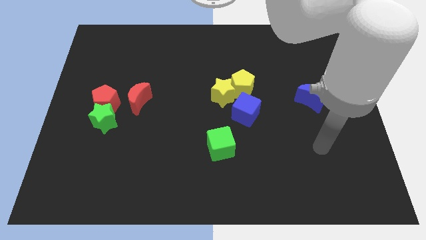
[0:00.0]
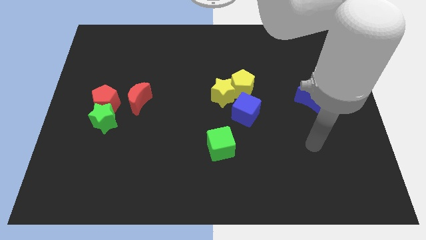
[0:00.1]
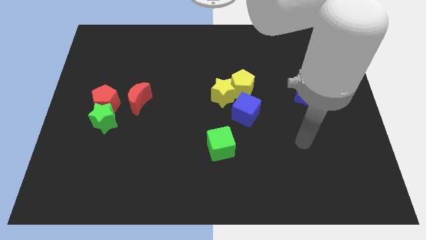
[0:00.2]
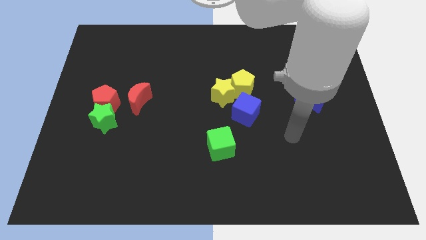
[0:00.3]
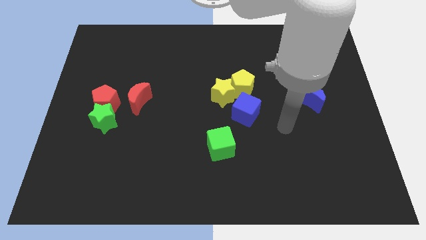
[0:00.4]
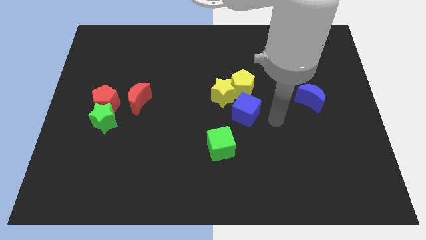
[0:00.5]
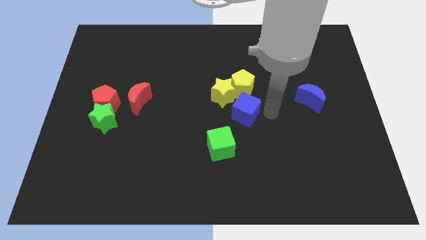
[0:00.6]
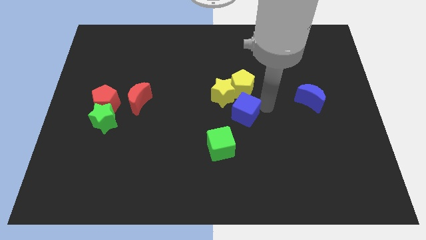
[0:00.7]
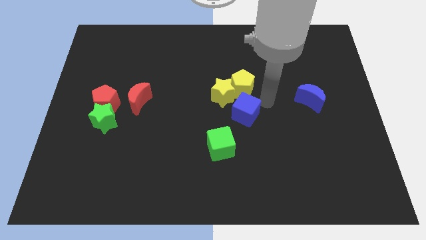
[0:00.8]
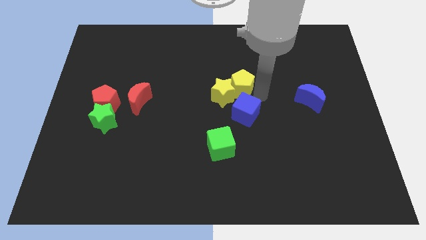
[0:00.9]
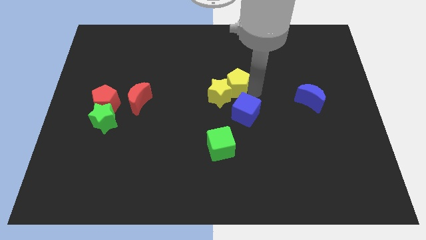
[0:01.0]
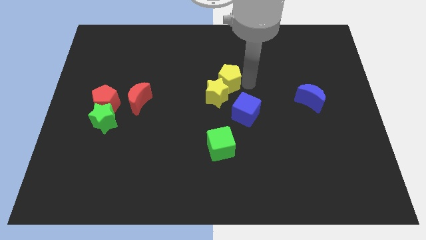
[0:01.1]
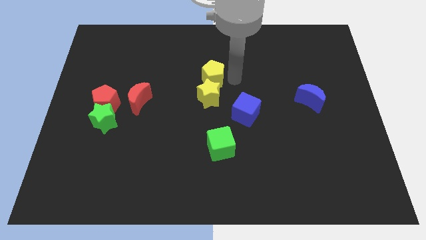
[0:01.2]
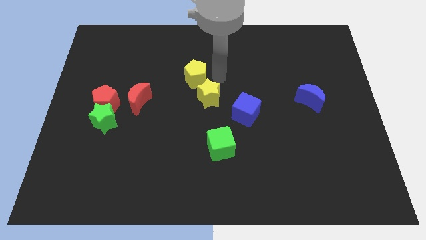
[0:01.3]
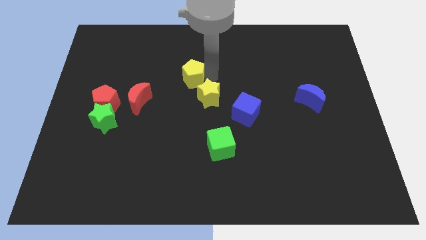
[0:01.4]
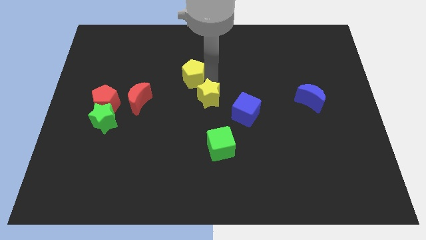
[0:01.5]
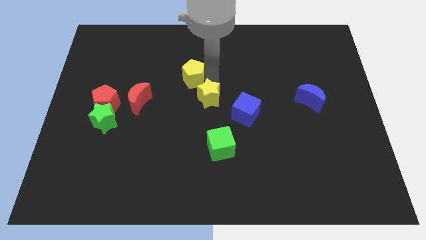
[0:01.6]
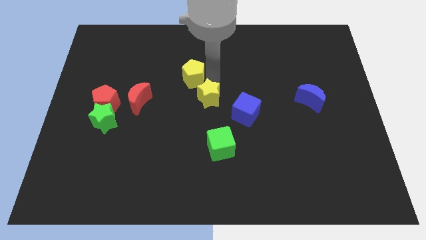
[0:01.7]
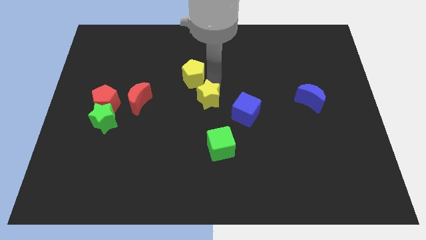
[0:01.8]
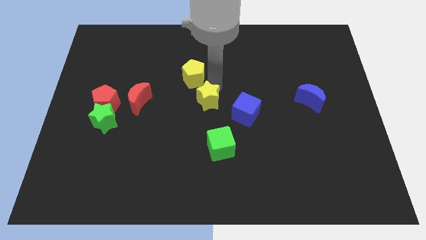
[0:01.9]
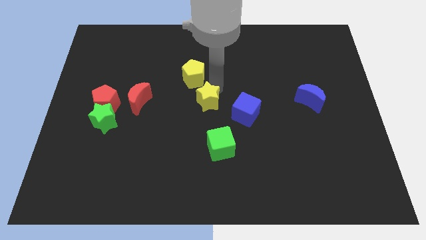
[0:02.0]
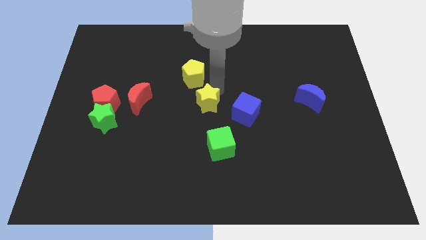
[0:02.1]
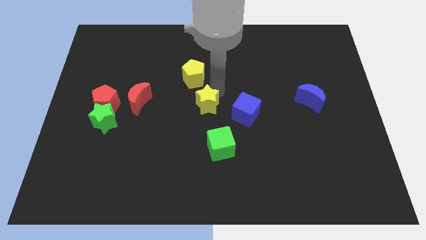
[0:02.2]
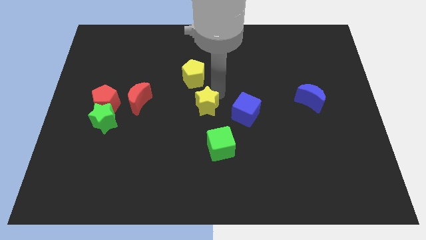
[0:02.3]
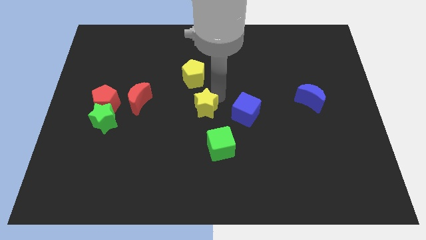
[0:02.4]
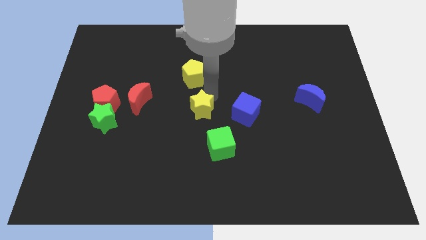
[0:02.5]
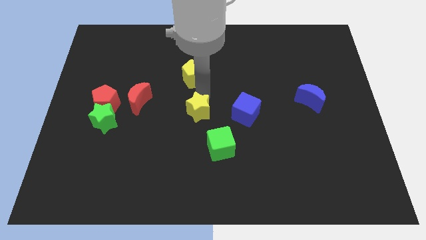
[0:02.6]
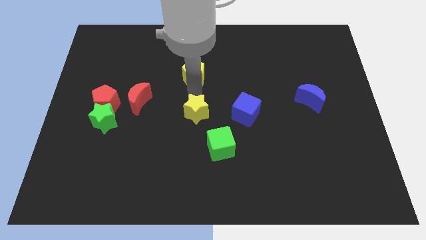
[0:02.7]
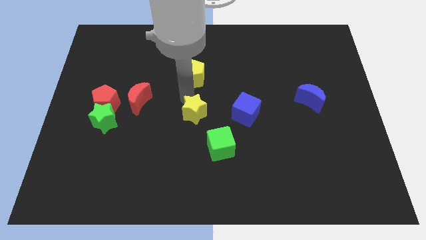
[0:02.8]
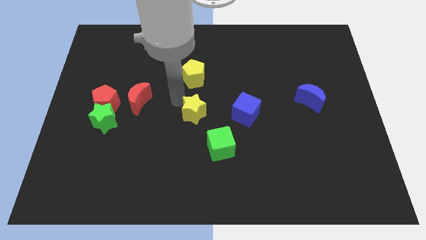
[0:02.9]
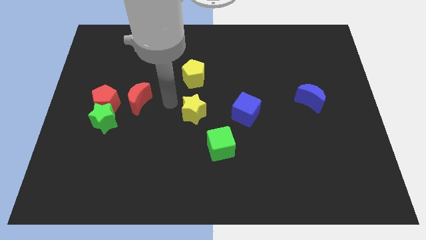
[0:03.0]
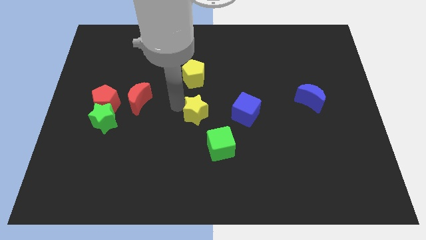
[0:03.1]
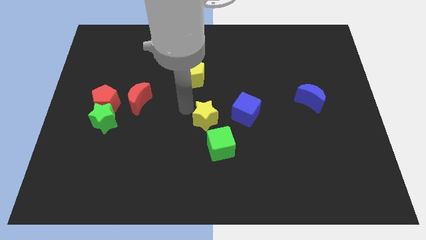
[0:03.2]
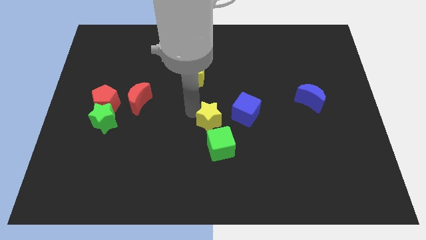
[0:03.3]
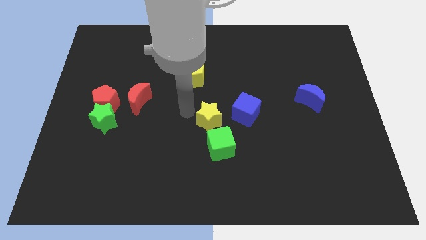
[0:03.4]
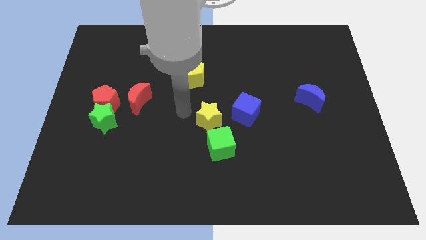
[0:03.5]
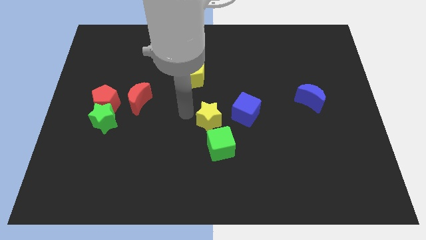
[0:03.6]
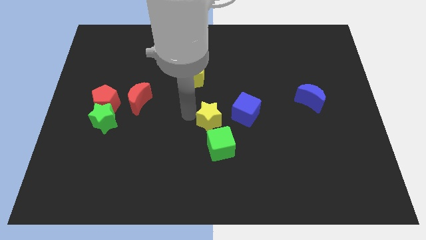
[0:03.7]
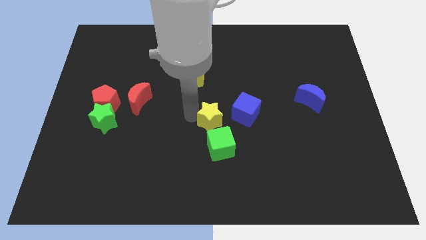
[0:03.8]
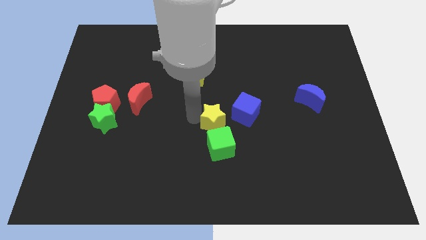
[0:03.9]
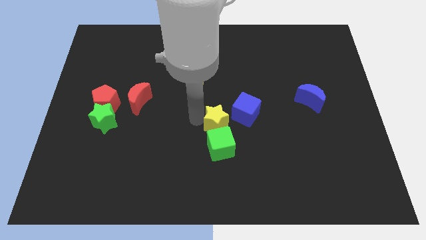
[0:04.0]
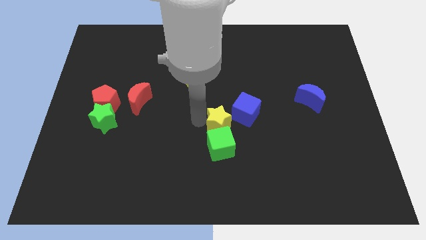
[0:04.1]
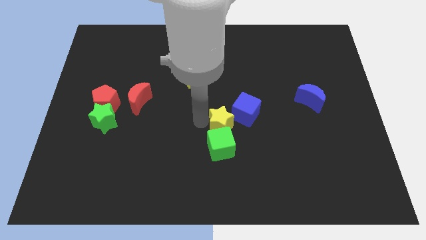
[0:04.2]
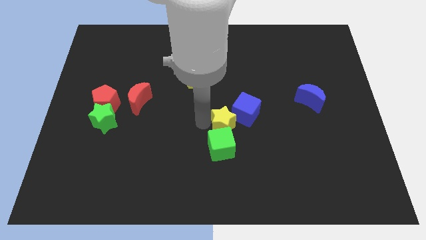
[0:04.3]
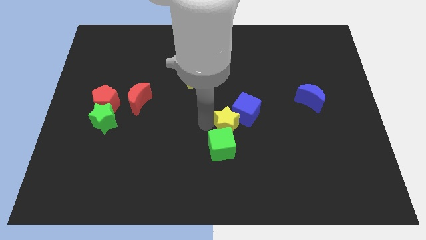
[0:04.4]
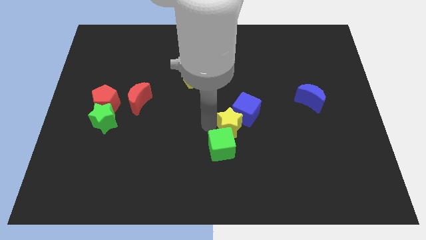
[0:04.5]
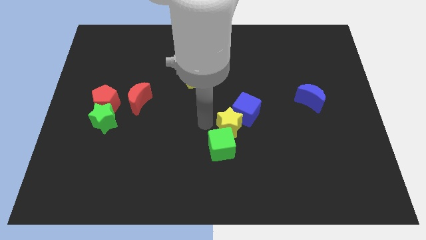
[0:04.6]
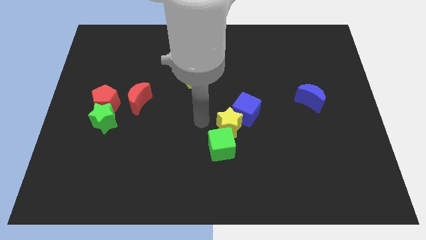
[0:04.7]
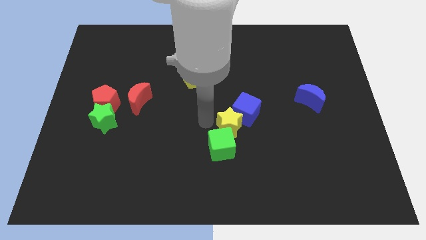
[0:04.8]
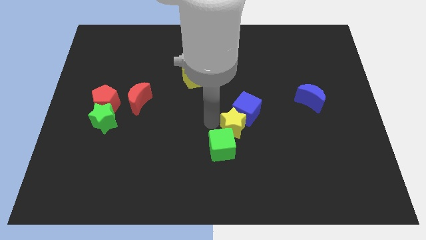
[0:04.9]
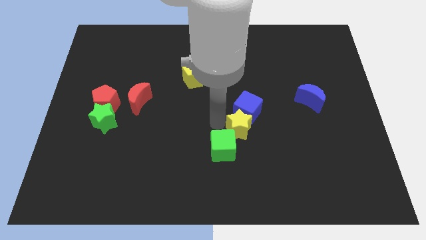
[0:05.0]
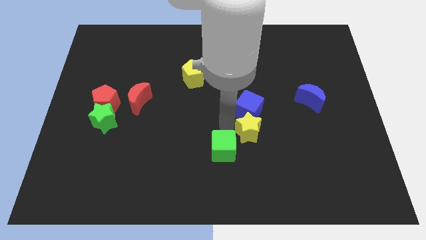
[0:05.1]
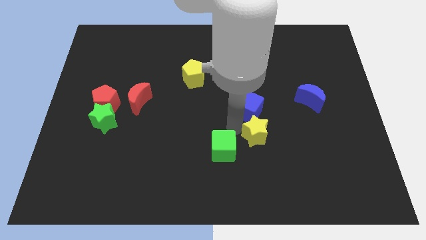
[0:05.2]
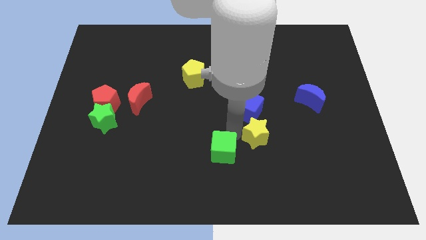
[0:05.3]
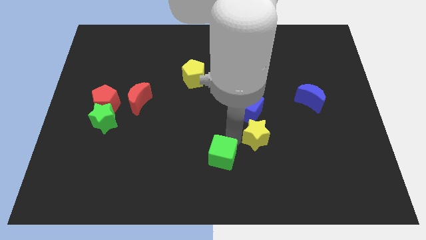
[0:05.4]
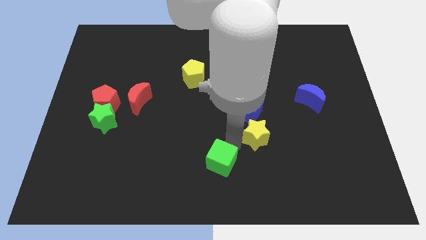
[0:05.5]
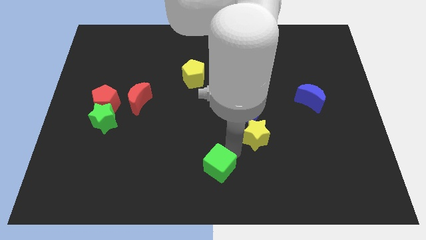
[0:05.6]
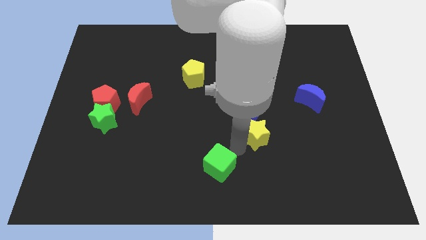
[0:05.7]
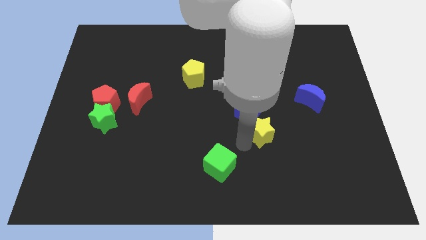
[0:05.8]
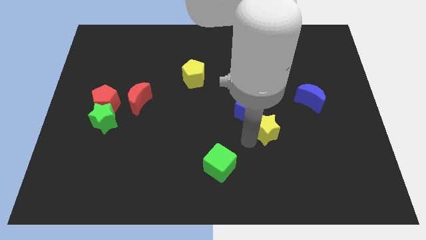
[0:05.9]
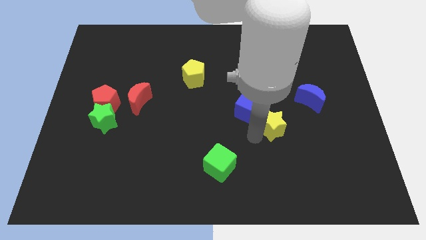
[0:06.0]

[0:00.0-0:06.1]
push the yellow star to the bottom left of the blue moon
